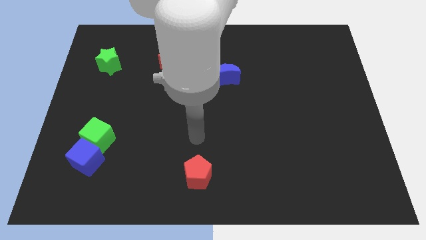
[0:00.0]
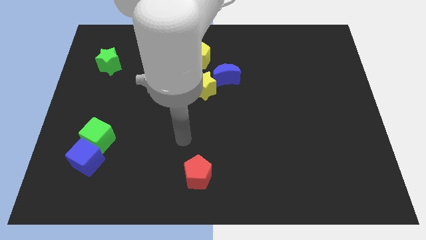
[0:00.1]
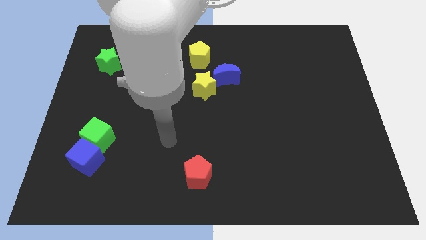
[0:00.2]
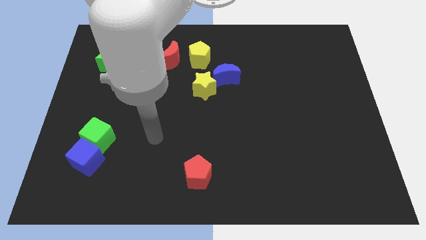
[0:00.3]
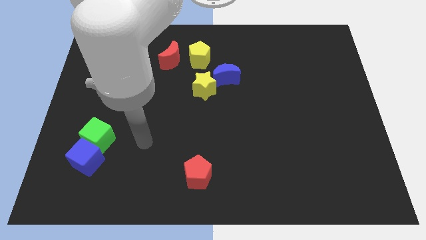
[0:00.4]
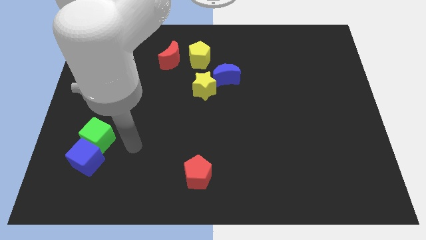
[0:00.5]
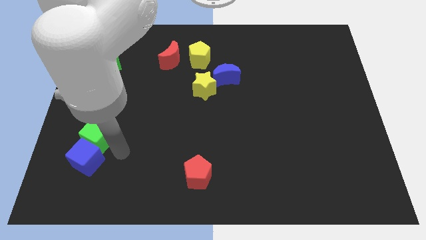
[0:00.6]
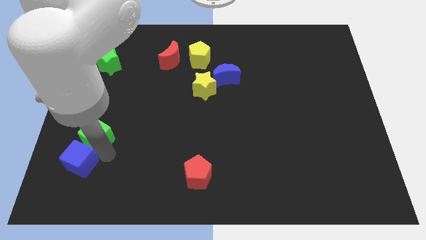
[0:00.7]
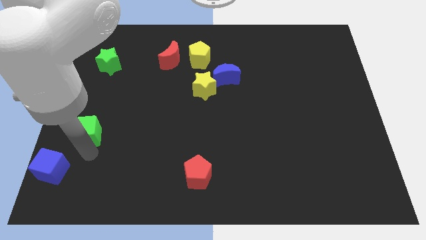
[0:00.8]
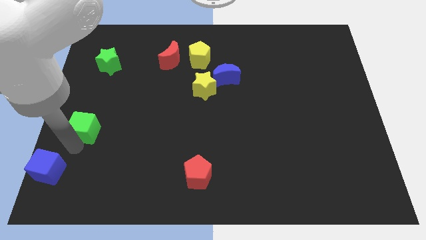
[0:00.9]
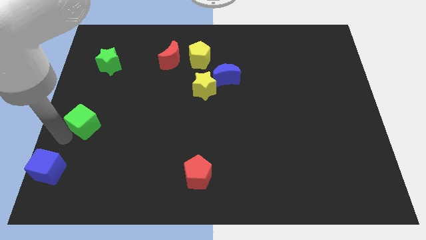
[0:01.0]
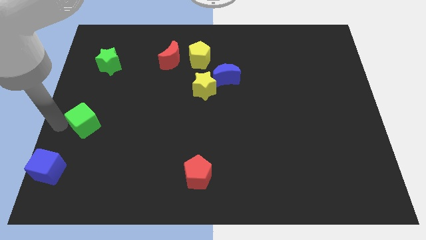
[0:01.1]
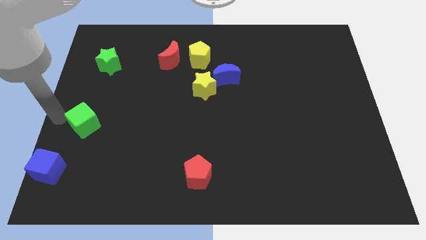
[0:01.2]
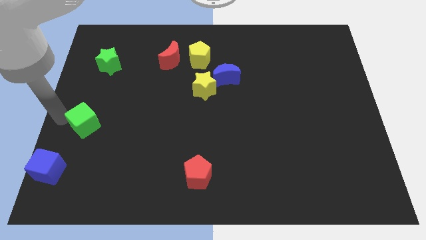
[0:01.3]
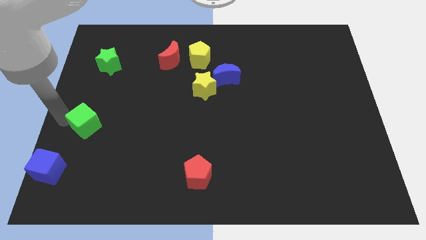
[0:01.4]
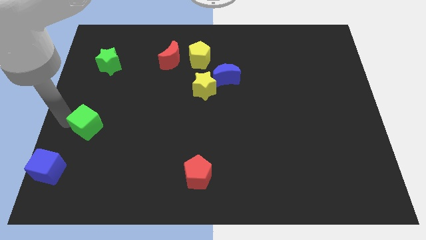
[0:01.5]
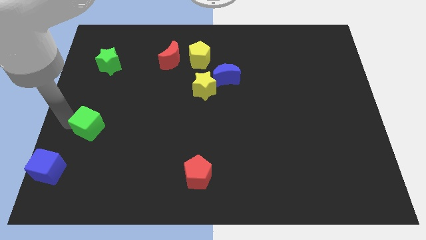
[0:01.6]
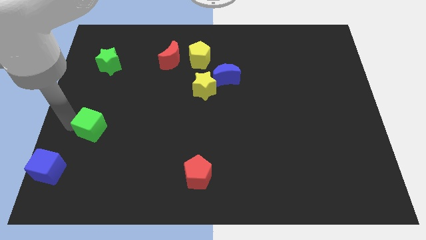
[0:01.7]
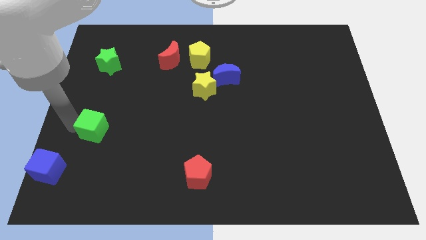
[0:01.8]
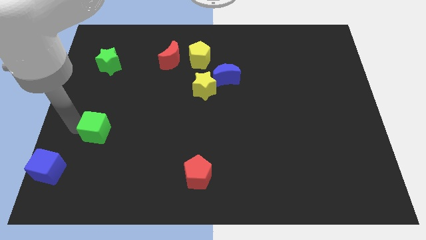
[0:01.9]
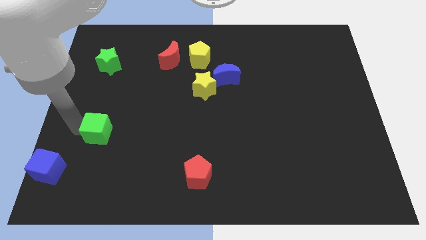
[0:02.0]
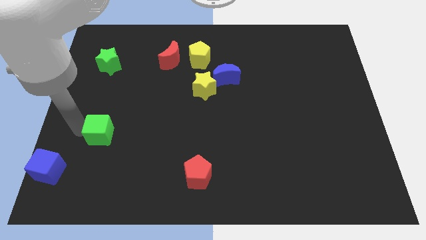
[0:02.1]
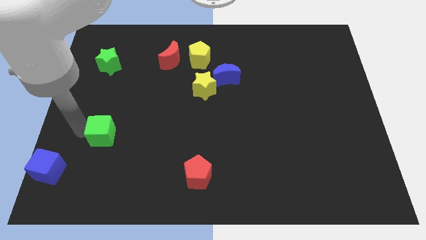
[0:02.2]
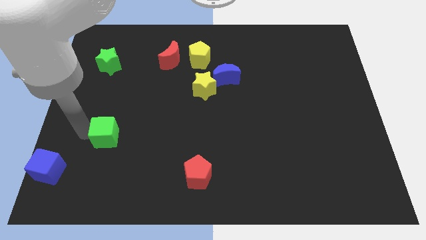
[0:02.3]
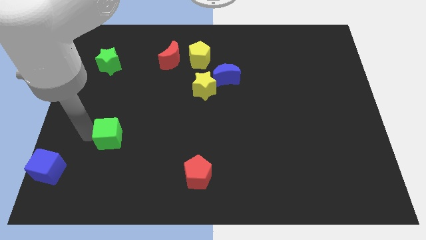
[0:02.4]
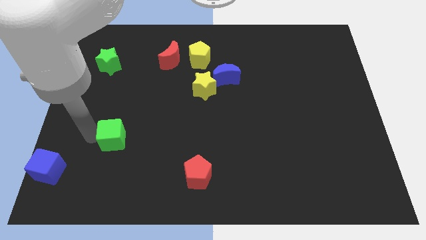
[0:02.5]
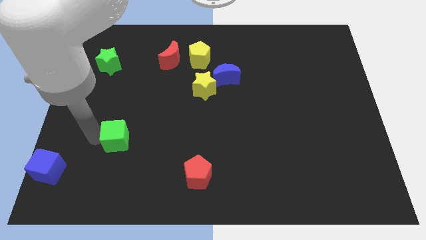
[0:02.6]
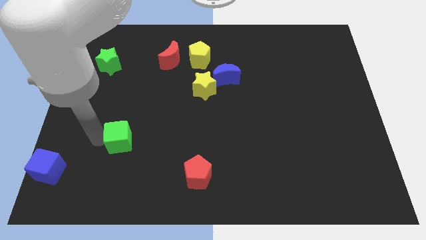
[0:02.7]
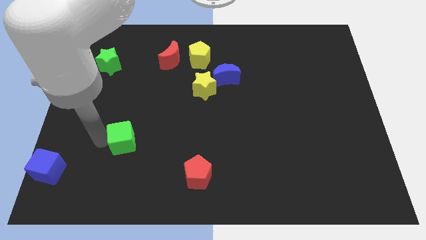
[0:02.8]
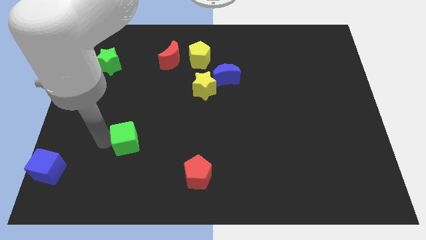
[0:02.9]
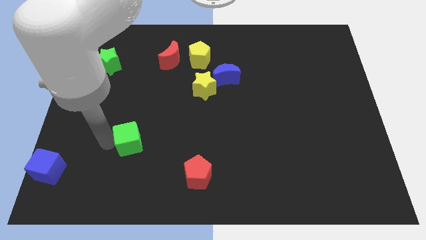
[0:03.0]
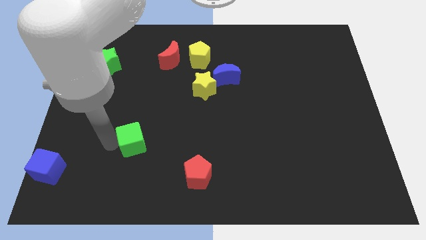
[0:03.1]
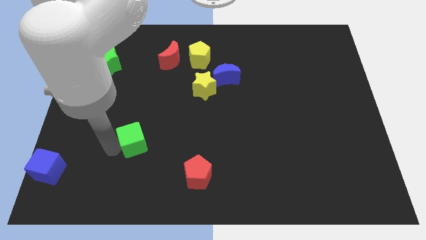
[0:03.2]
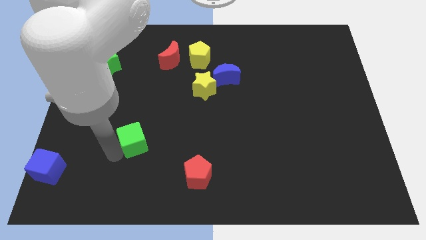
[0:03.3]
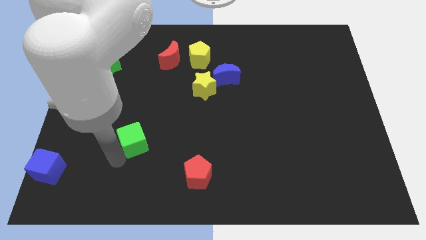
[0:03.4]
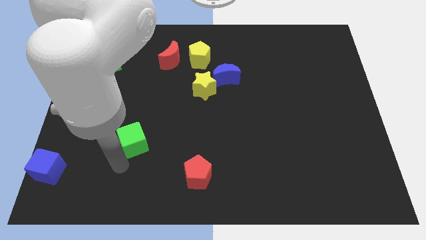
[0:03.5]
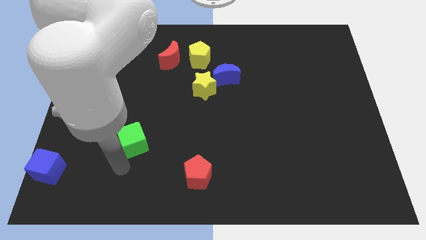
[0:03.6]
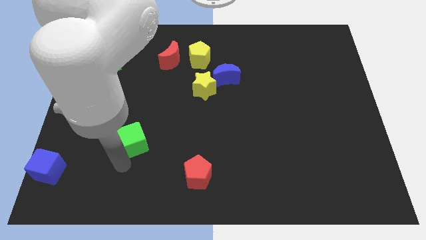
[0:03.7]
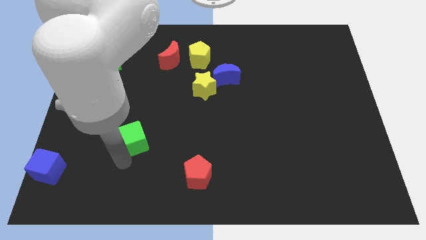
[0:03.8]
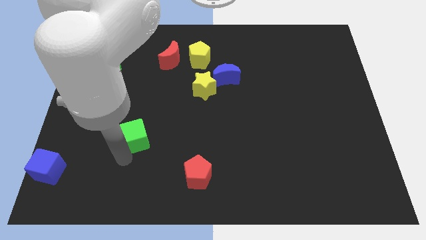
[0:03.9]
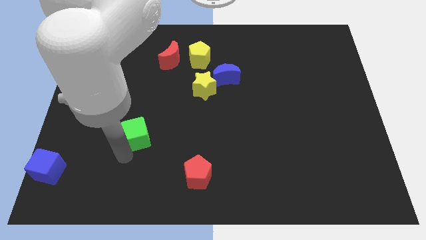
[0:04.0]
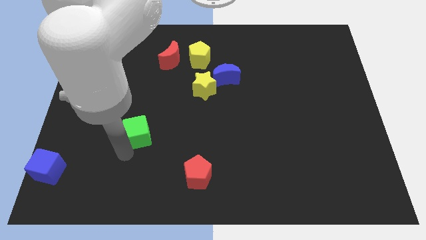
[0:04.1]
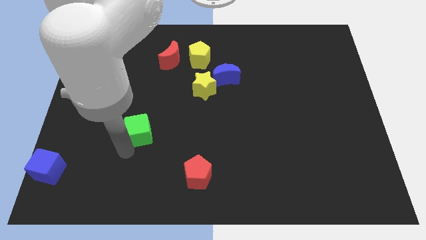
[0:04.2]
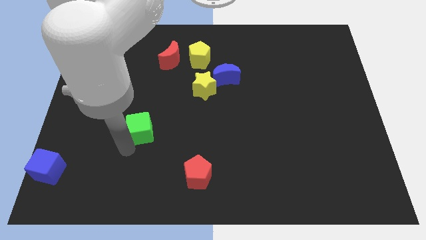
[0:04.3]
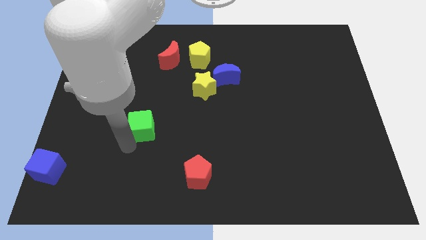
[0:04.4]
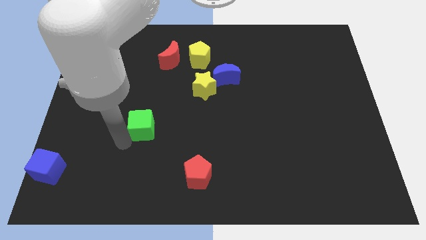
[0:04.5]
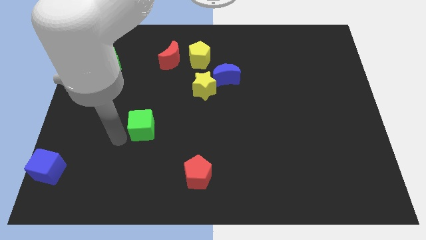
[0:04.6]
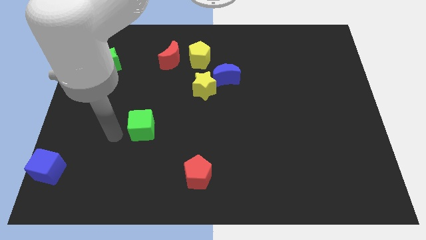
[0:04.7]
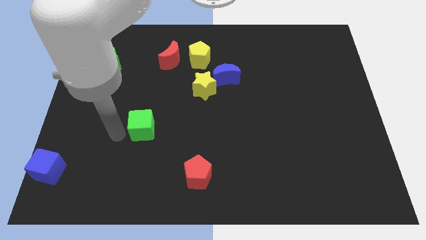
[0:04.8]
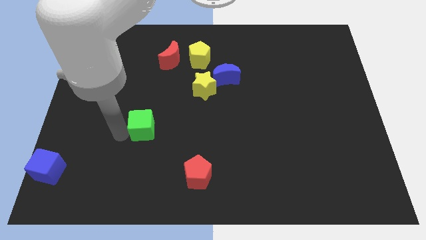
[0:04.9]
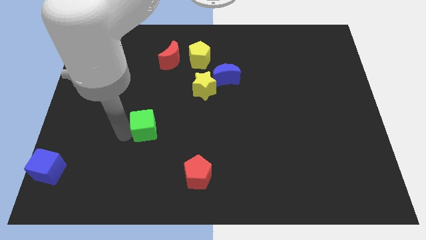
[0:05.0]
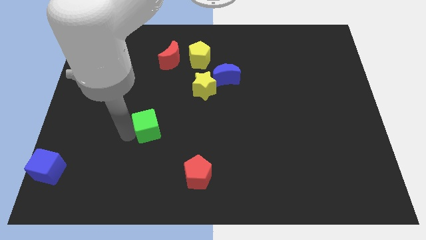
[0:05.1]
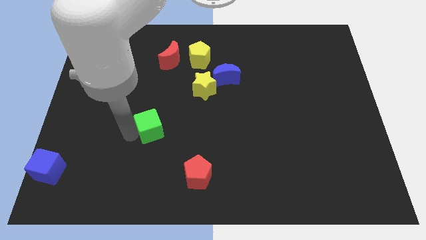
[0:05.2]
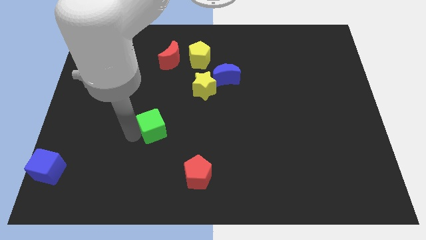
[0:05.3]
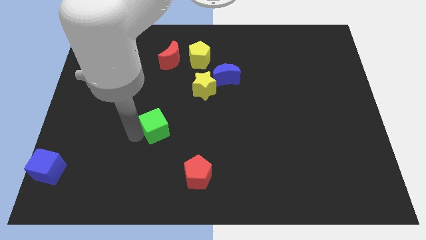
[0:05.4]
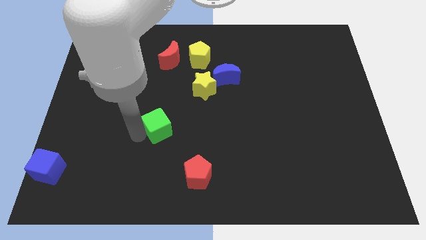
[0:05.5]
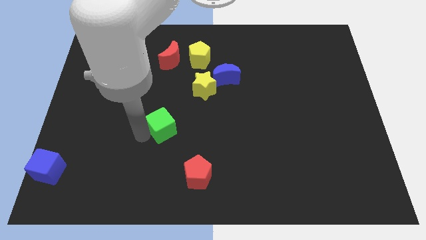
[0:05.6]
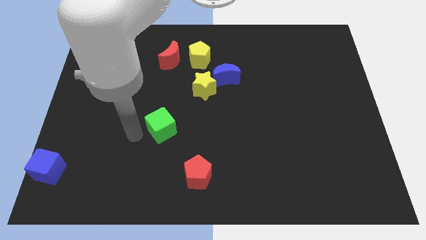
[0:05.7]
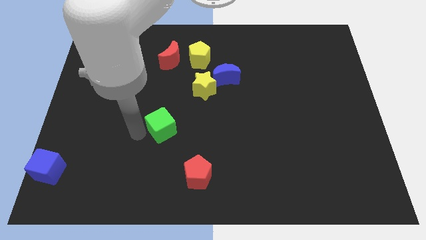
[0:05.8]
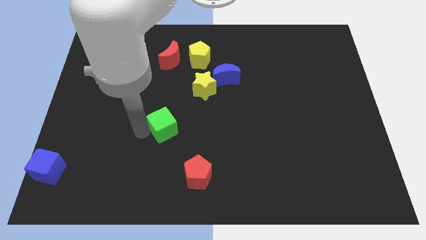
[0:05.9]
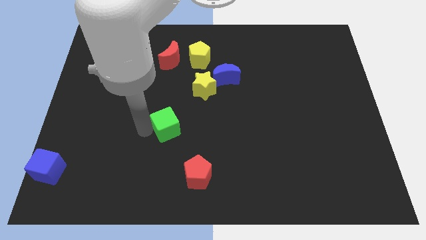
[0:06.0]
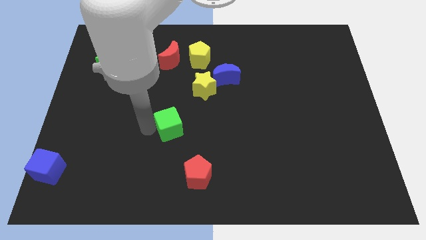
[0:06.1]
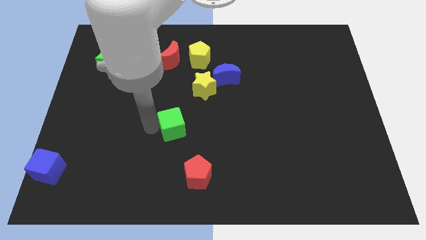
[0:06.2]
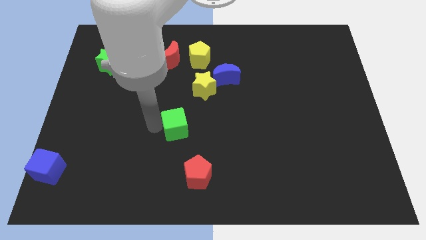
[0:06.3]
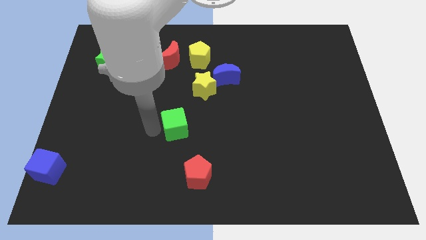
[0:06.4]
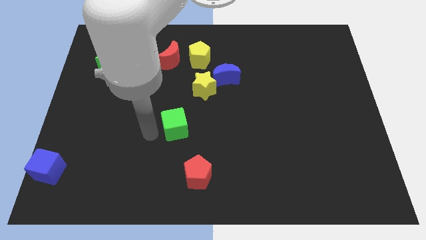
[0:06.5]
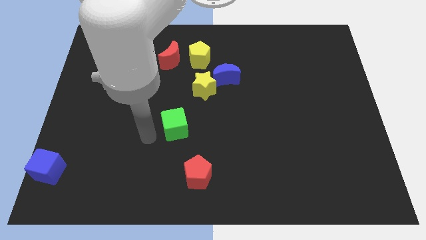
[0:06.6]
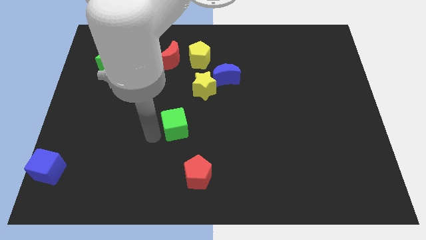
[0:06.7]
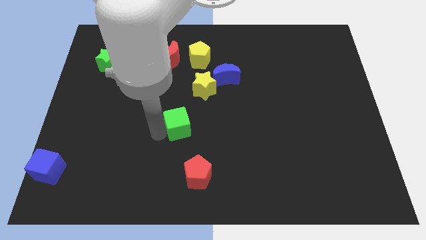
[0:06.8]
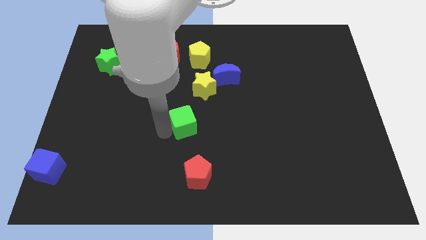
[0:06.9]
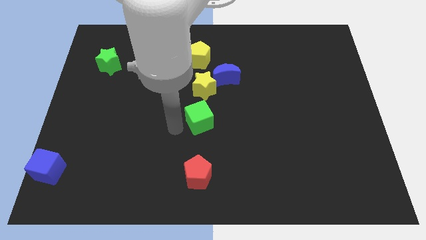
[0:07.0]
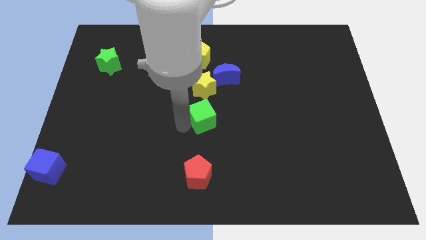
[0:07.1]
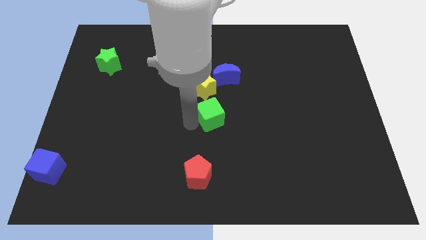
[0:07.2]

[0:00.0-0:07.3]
slide the green cube to the bottom of the blue moon

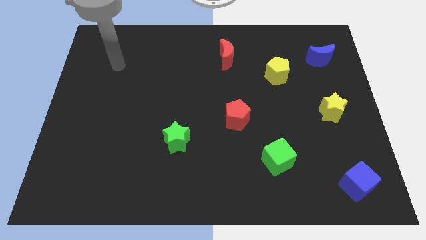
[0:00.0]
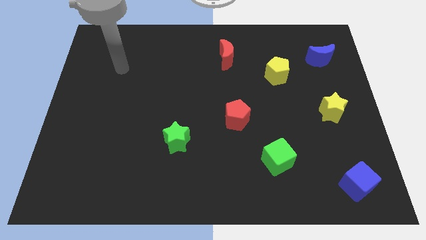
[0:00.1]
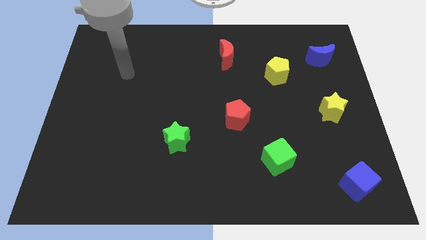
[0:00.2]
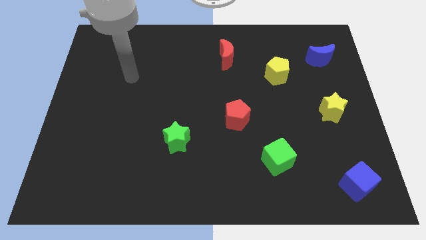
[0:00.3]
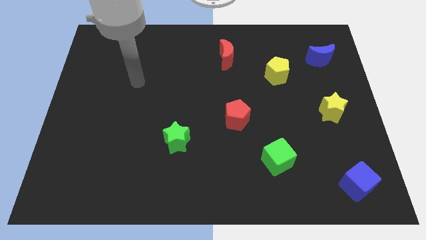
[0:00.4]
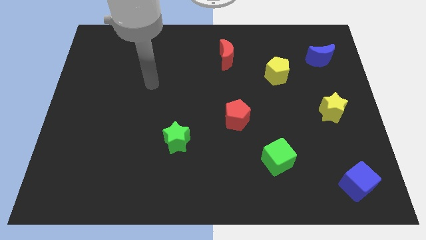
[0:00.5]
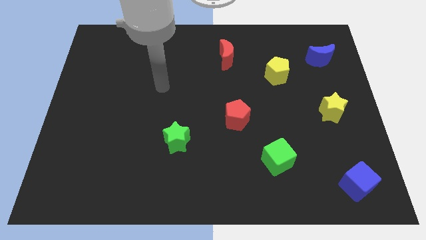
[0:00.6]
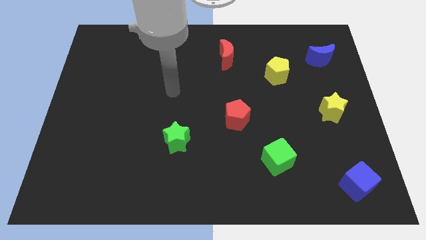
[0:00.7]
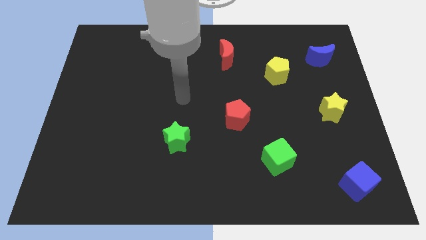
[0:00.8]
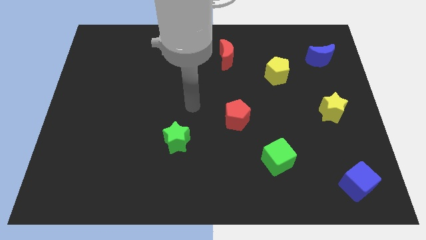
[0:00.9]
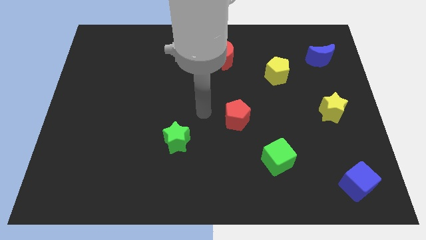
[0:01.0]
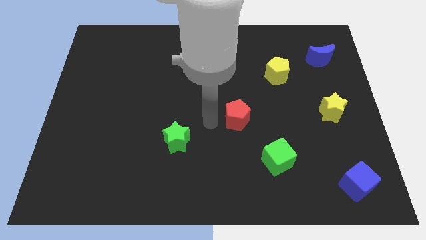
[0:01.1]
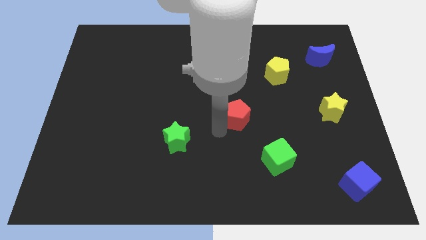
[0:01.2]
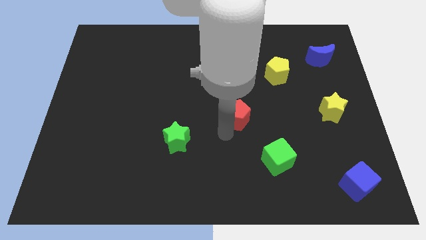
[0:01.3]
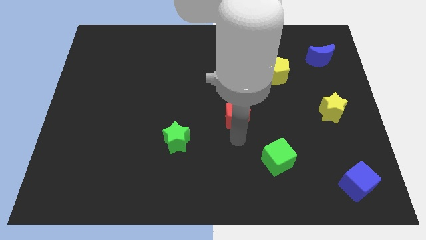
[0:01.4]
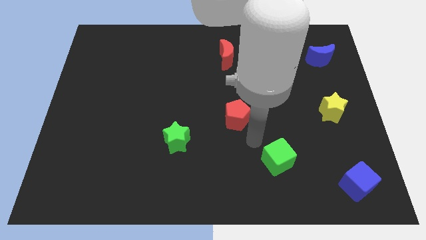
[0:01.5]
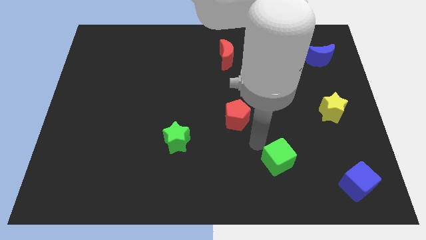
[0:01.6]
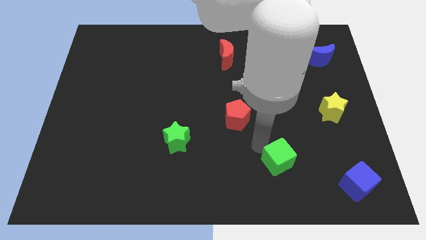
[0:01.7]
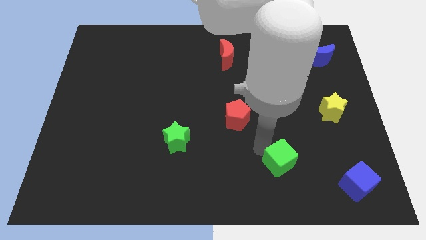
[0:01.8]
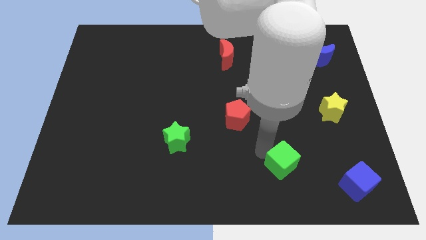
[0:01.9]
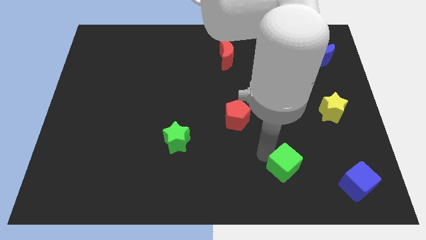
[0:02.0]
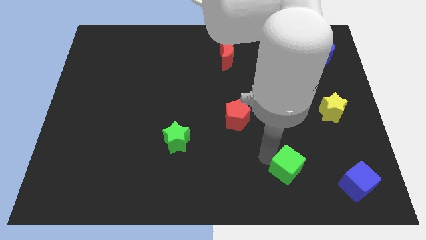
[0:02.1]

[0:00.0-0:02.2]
put the green cube left of the blue cube
